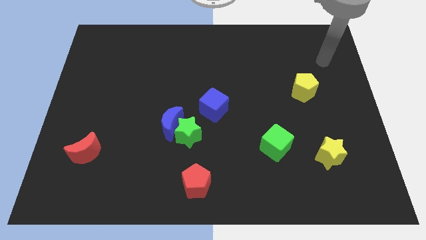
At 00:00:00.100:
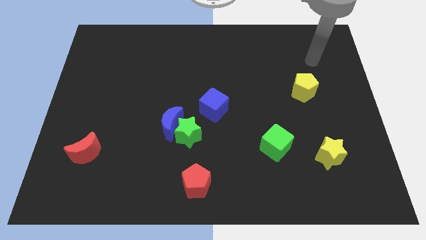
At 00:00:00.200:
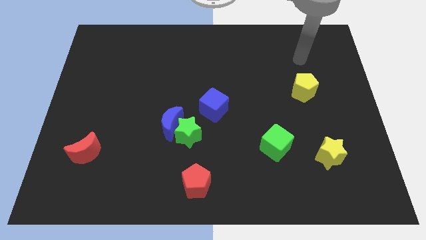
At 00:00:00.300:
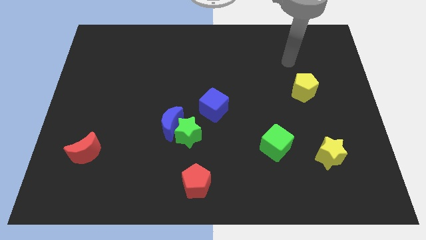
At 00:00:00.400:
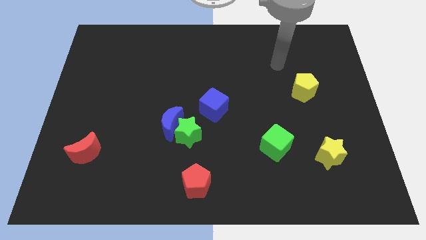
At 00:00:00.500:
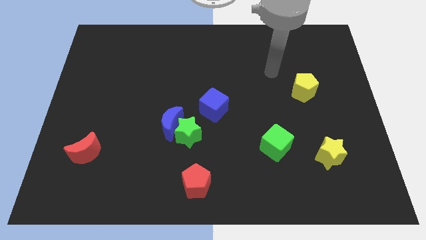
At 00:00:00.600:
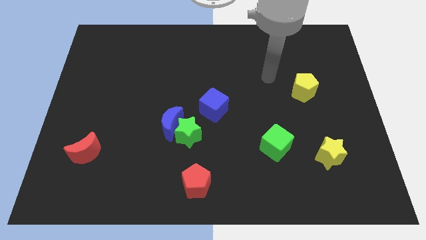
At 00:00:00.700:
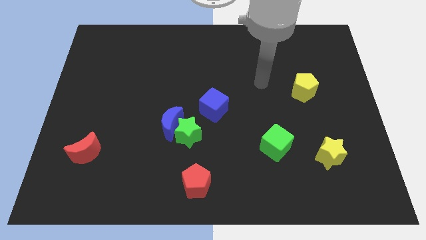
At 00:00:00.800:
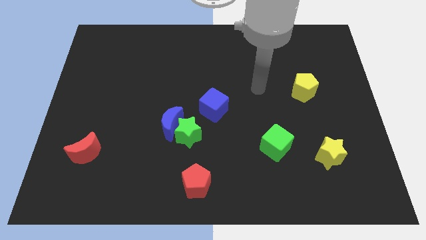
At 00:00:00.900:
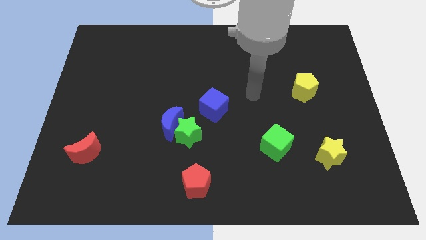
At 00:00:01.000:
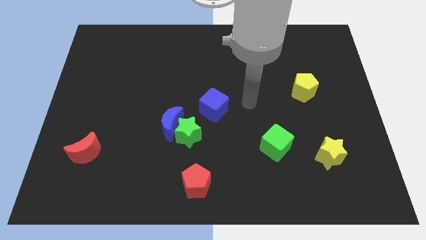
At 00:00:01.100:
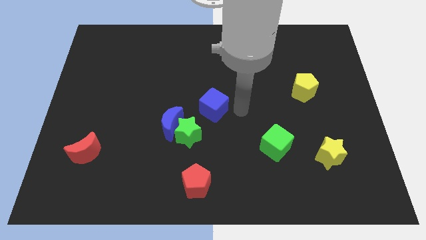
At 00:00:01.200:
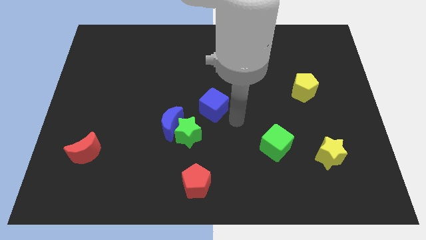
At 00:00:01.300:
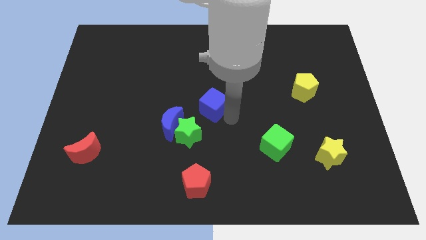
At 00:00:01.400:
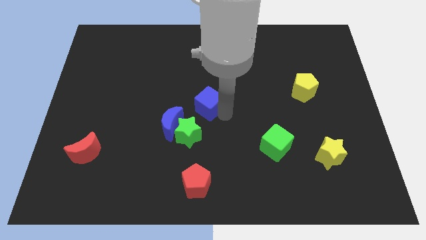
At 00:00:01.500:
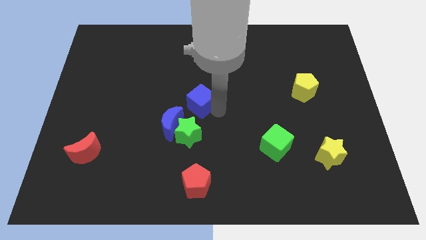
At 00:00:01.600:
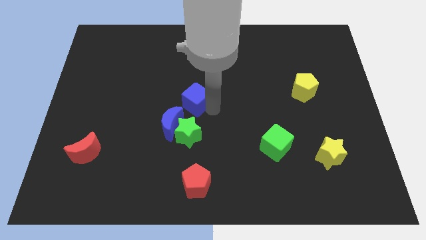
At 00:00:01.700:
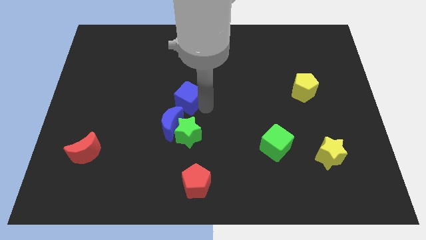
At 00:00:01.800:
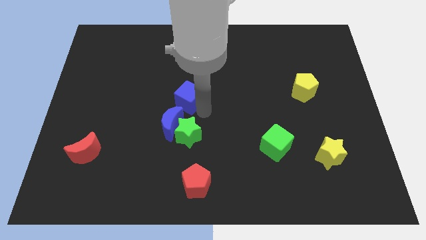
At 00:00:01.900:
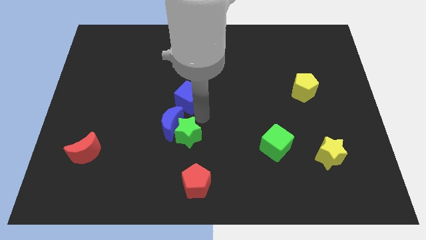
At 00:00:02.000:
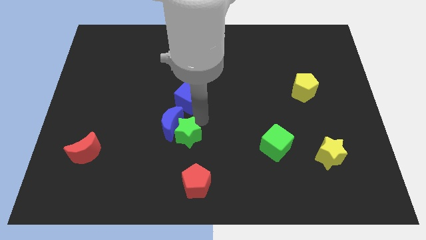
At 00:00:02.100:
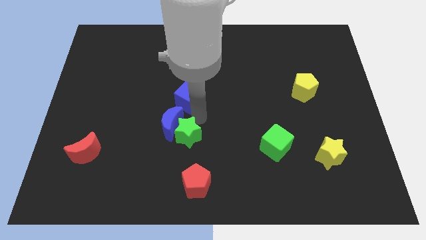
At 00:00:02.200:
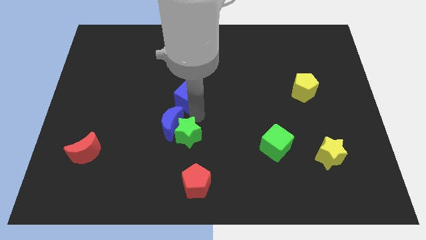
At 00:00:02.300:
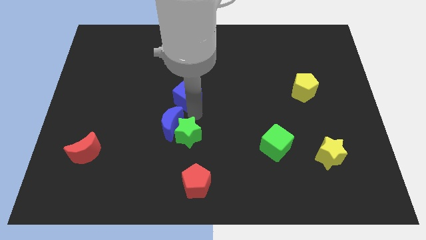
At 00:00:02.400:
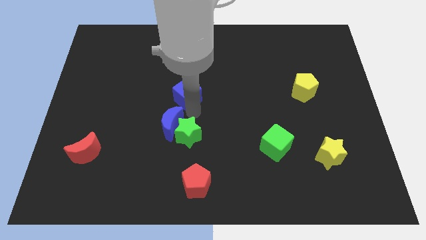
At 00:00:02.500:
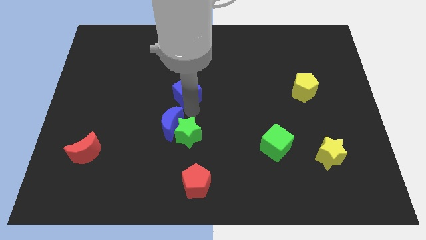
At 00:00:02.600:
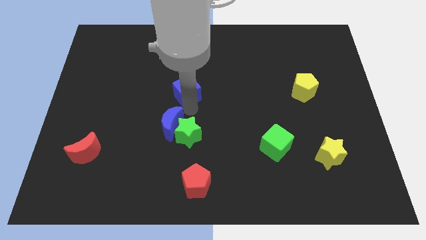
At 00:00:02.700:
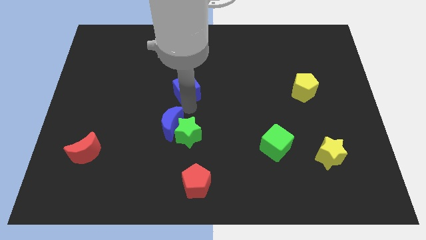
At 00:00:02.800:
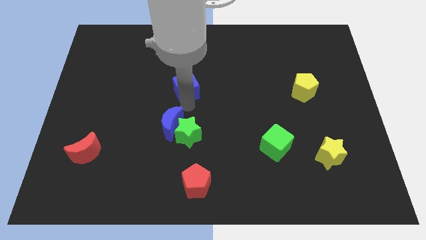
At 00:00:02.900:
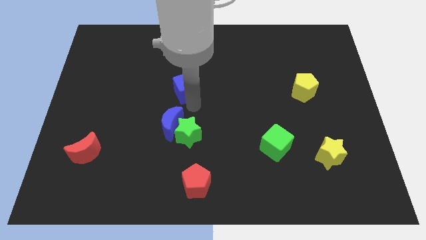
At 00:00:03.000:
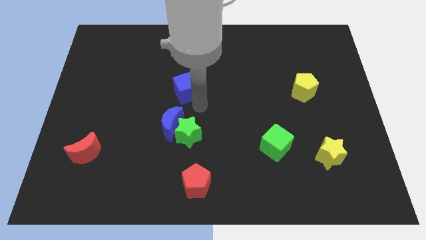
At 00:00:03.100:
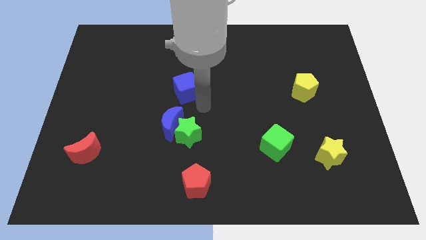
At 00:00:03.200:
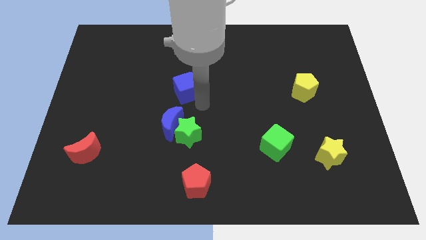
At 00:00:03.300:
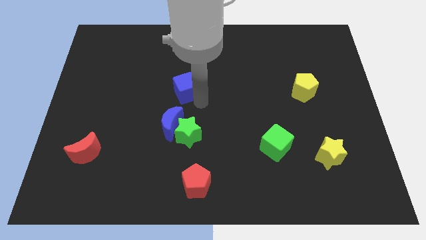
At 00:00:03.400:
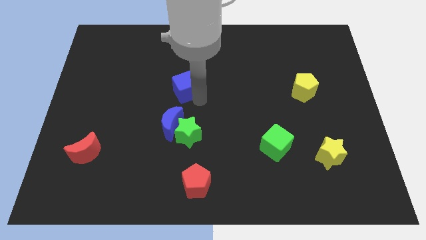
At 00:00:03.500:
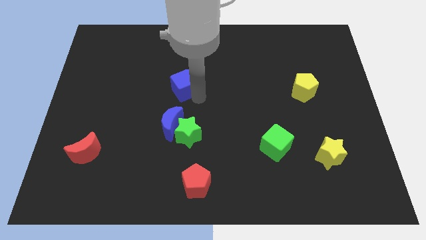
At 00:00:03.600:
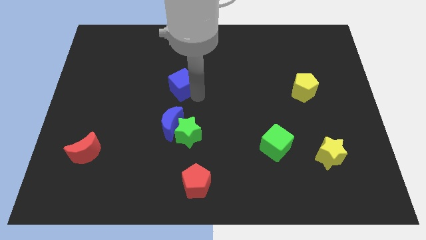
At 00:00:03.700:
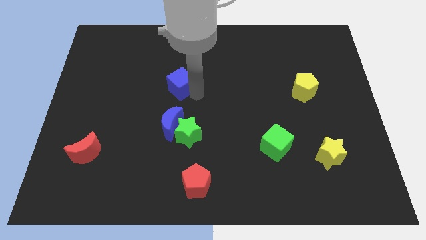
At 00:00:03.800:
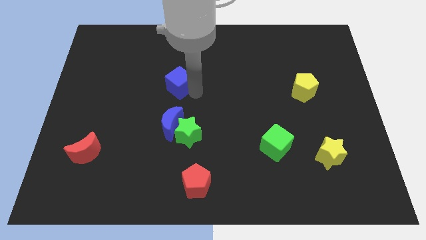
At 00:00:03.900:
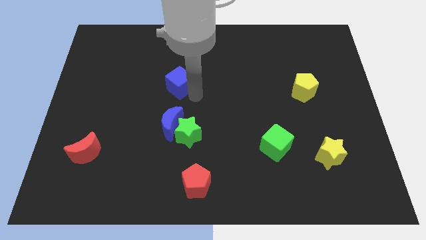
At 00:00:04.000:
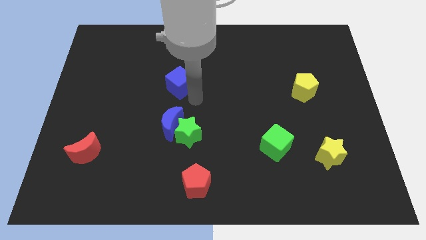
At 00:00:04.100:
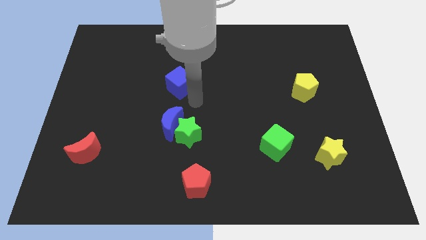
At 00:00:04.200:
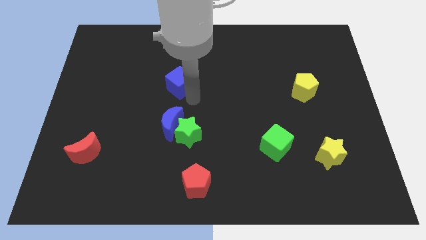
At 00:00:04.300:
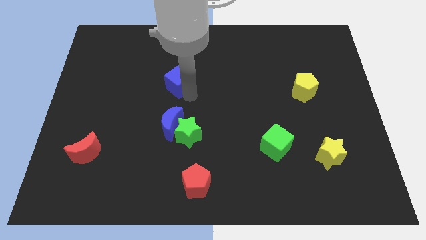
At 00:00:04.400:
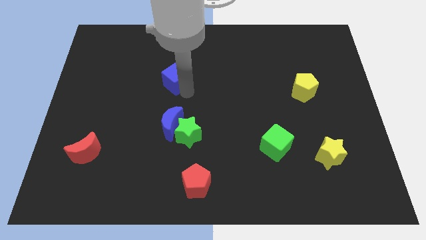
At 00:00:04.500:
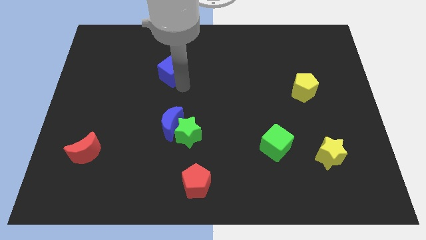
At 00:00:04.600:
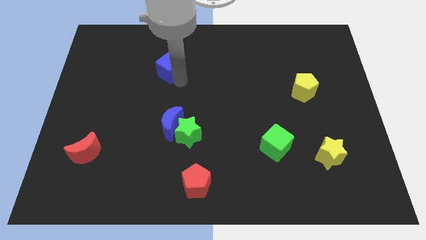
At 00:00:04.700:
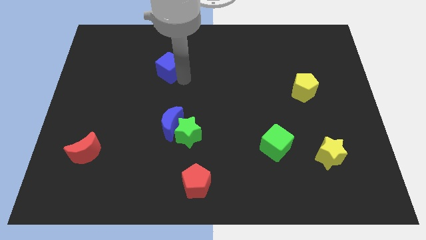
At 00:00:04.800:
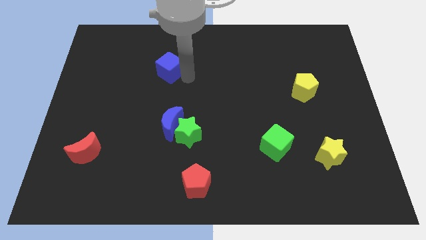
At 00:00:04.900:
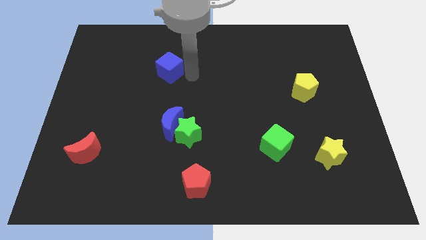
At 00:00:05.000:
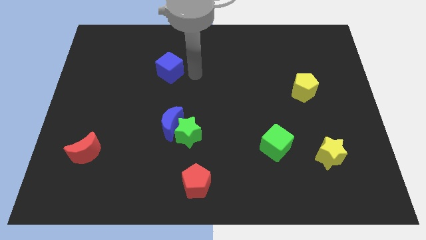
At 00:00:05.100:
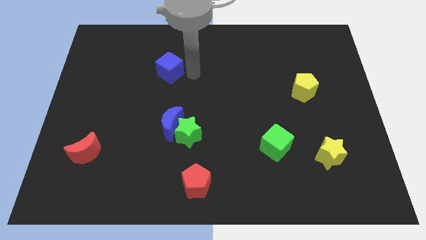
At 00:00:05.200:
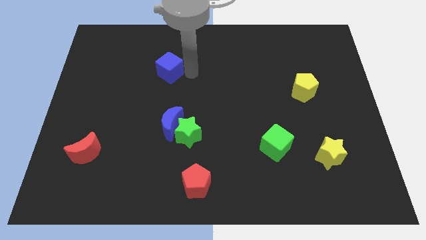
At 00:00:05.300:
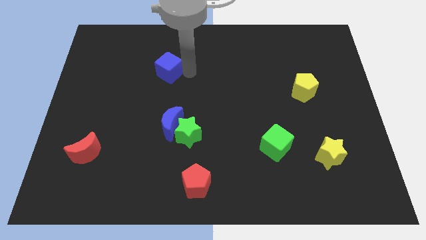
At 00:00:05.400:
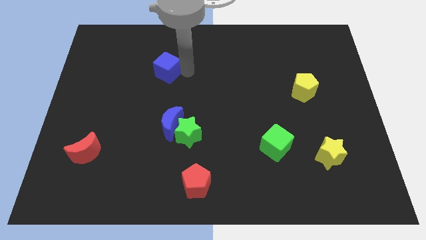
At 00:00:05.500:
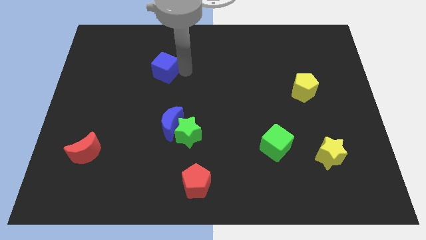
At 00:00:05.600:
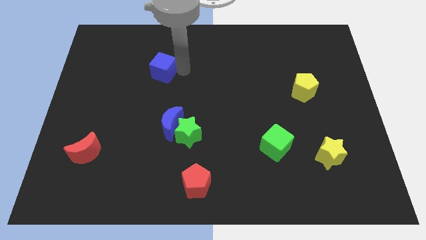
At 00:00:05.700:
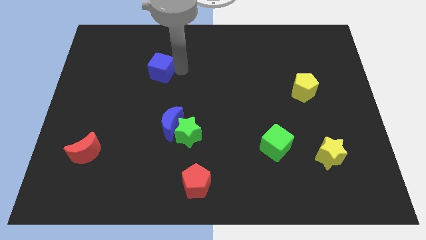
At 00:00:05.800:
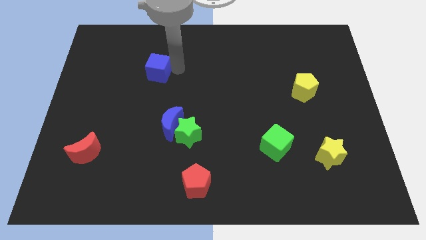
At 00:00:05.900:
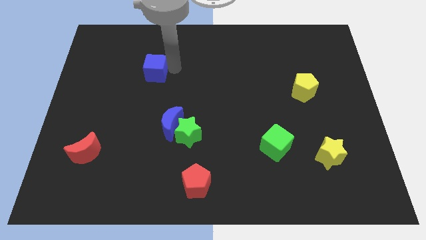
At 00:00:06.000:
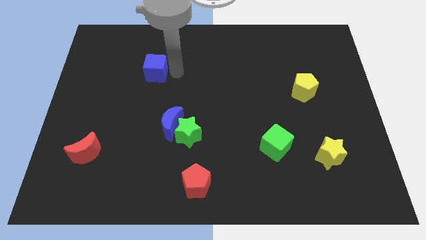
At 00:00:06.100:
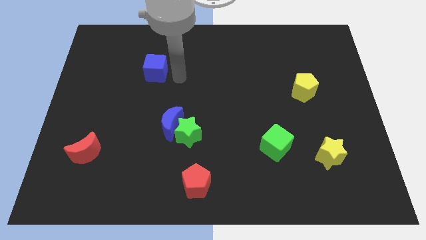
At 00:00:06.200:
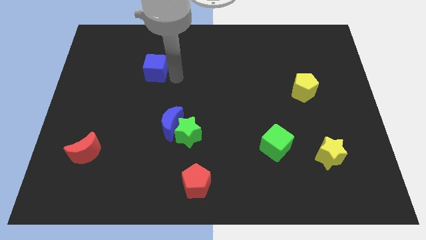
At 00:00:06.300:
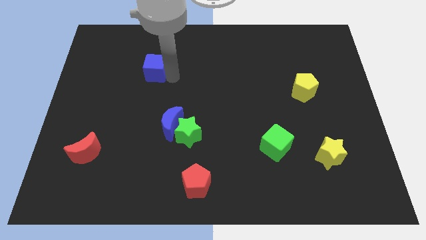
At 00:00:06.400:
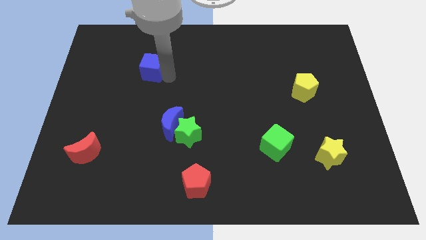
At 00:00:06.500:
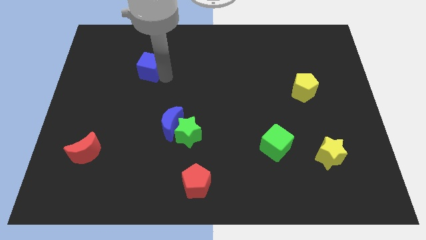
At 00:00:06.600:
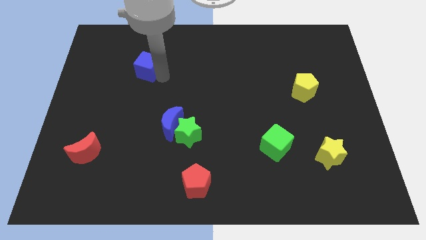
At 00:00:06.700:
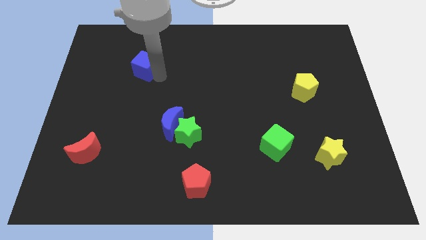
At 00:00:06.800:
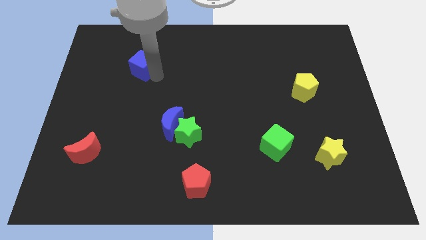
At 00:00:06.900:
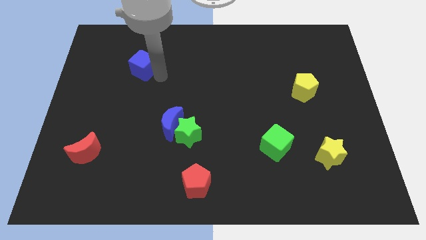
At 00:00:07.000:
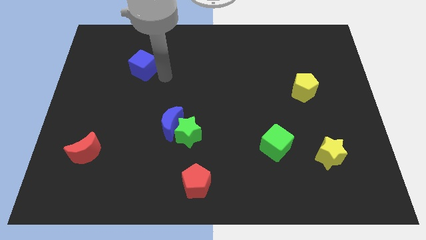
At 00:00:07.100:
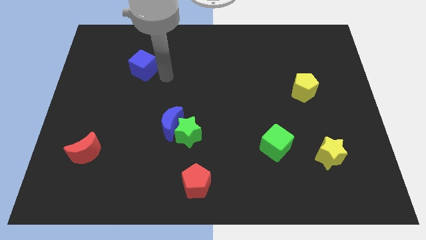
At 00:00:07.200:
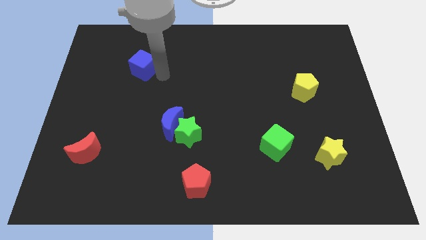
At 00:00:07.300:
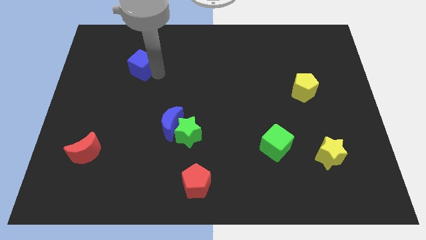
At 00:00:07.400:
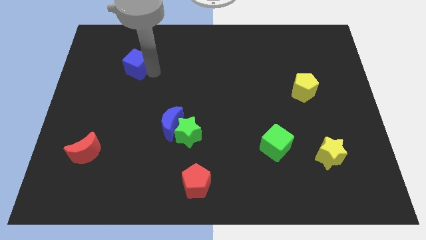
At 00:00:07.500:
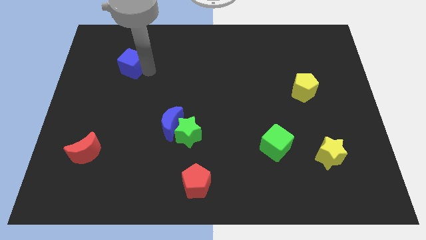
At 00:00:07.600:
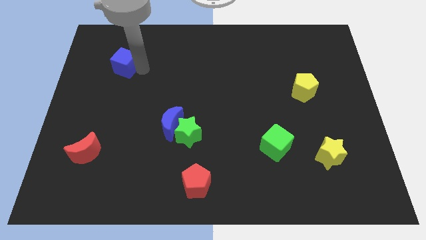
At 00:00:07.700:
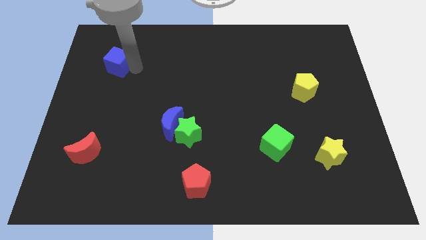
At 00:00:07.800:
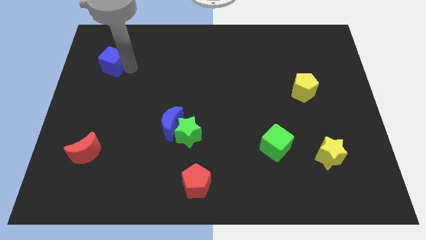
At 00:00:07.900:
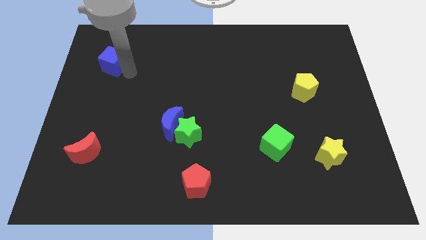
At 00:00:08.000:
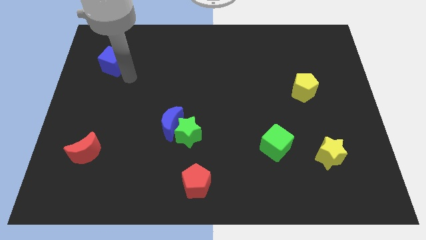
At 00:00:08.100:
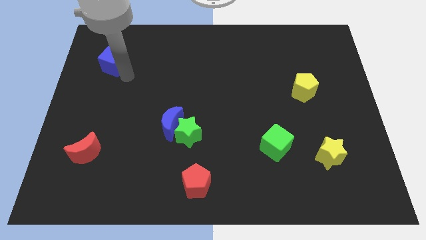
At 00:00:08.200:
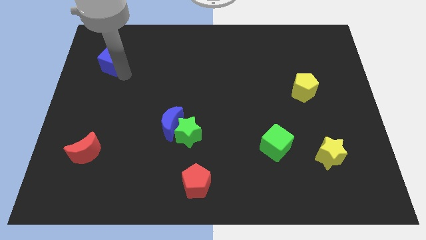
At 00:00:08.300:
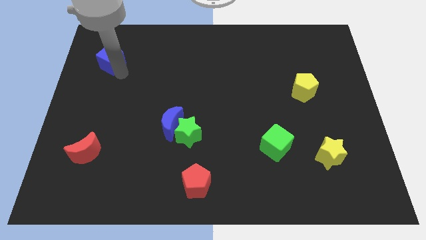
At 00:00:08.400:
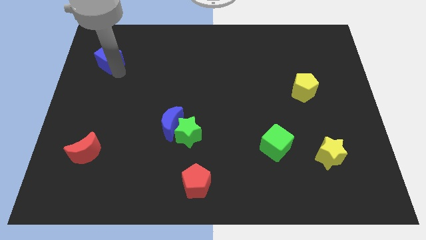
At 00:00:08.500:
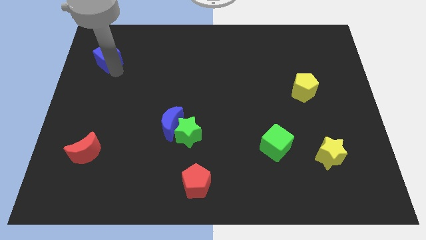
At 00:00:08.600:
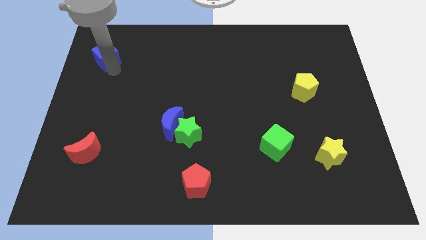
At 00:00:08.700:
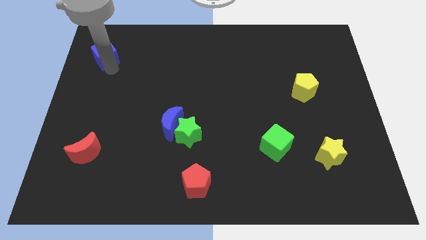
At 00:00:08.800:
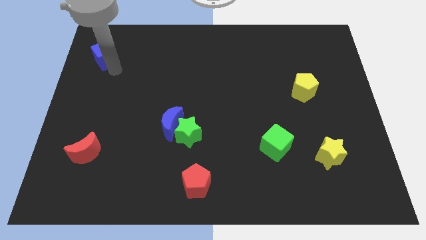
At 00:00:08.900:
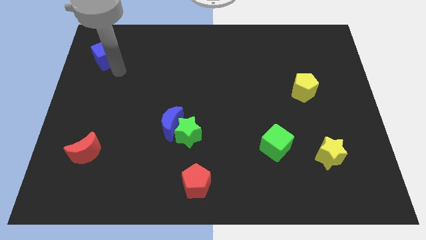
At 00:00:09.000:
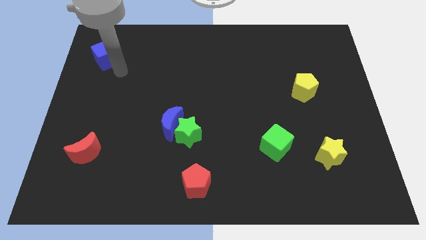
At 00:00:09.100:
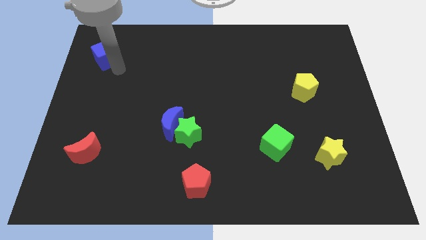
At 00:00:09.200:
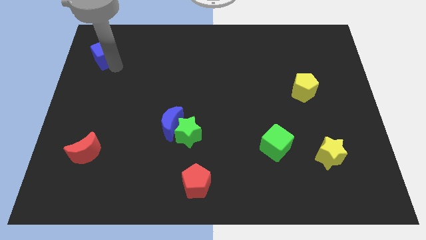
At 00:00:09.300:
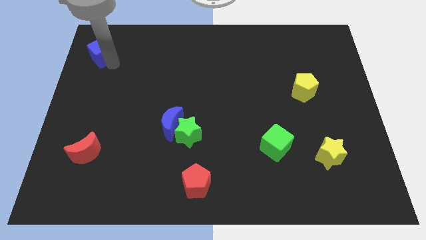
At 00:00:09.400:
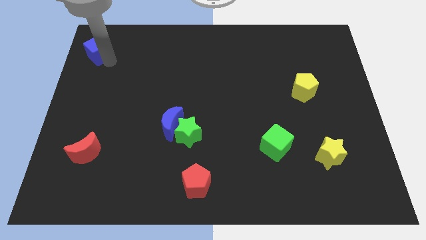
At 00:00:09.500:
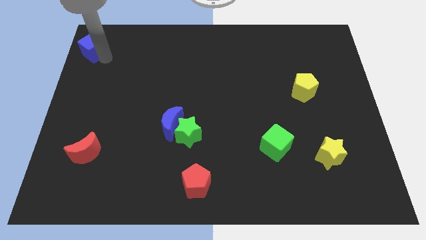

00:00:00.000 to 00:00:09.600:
put the blue cube to the top left of the board
